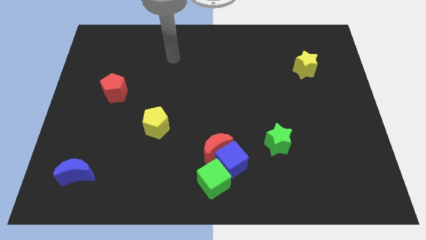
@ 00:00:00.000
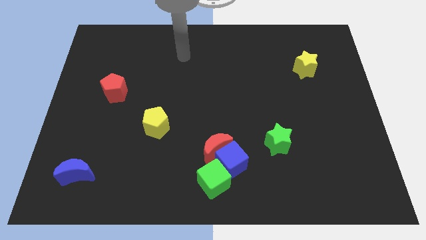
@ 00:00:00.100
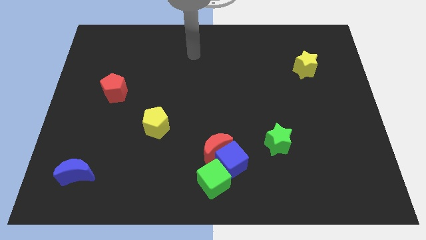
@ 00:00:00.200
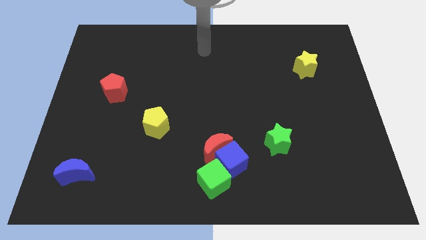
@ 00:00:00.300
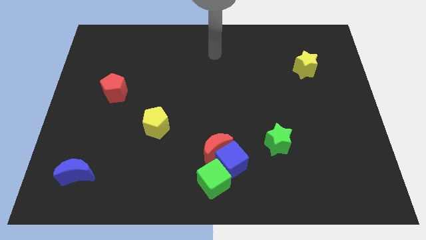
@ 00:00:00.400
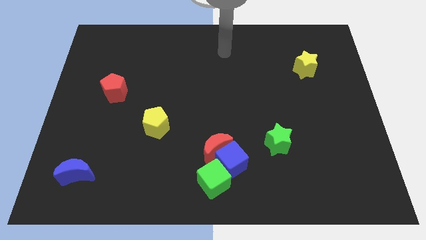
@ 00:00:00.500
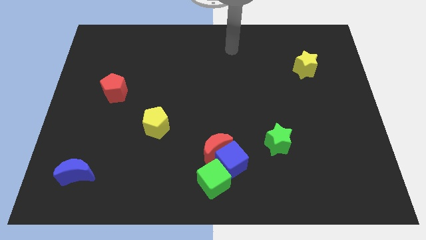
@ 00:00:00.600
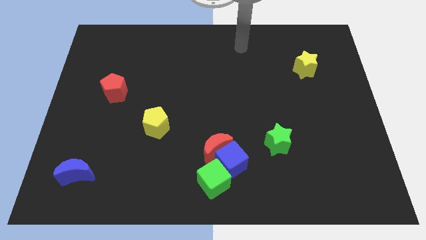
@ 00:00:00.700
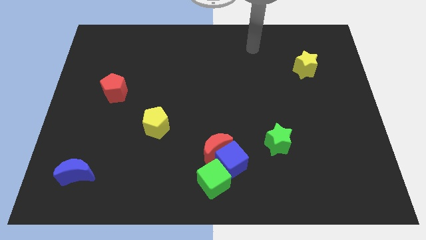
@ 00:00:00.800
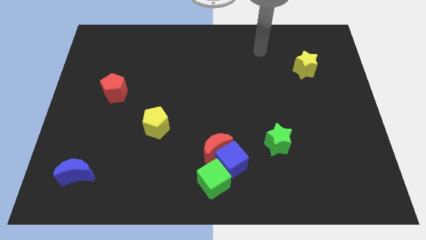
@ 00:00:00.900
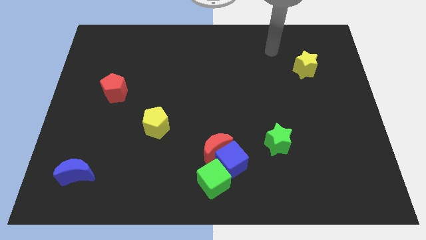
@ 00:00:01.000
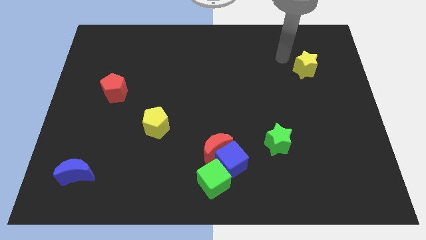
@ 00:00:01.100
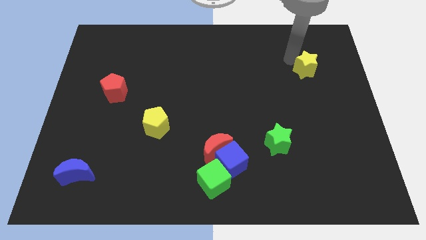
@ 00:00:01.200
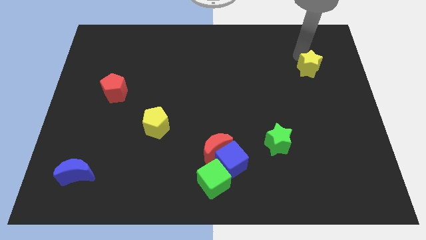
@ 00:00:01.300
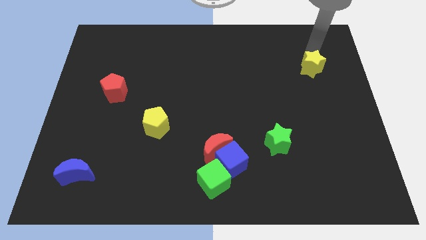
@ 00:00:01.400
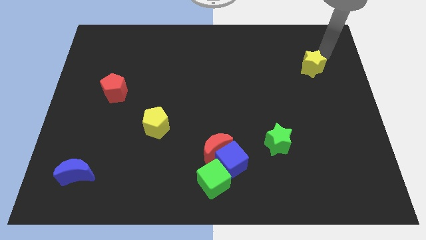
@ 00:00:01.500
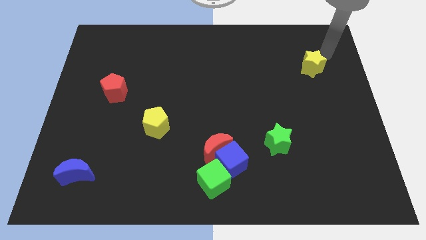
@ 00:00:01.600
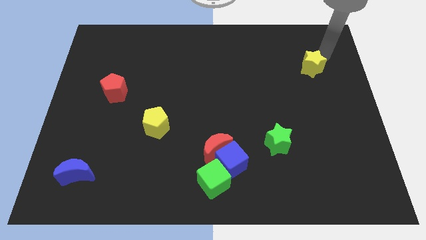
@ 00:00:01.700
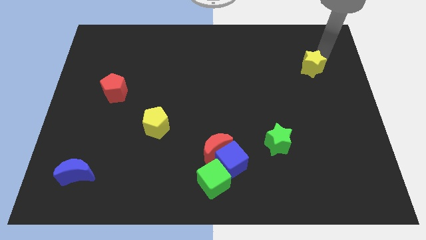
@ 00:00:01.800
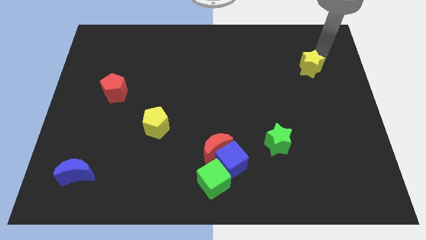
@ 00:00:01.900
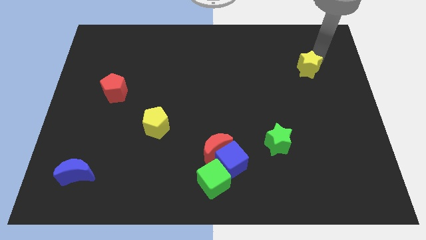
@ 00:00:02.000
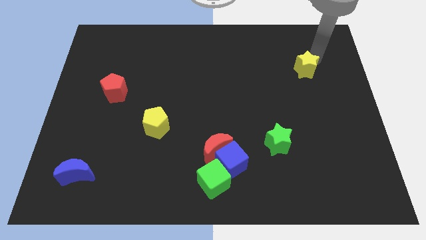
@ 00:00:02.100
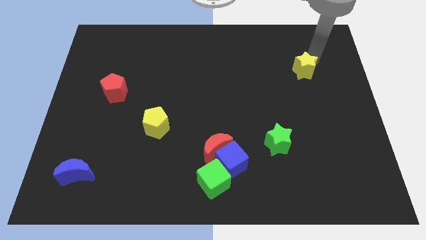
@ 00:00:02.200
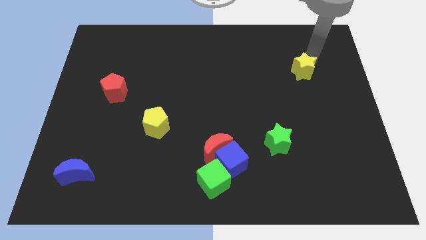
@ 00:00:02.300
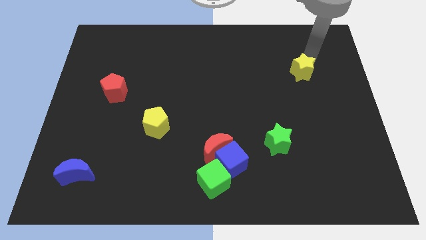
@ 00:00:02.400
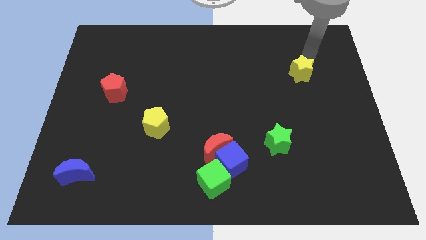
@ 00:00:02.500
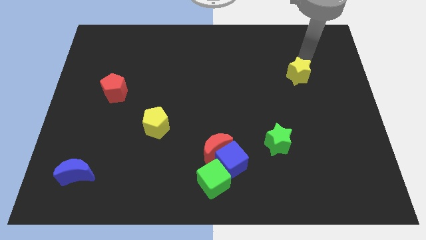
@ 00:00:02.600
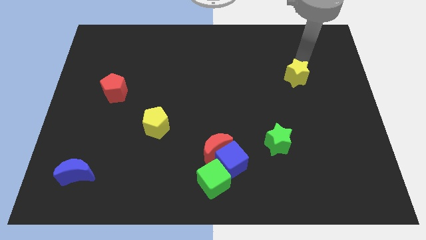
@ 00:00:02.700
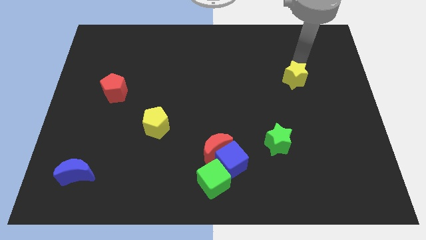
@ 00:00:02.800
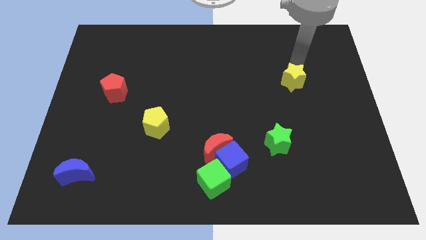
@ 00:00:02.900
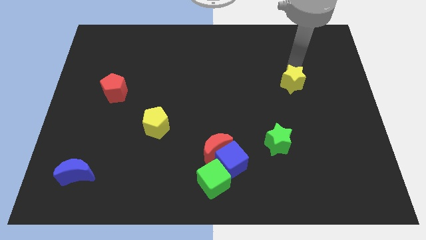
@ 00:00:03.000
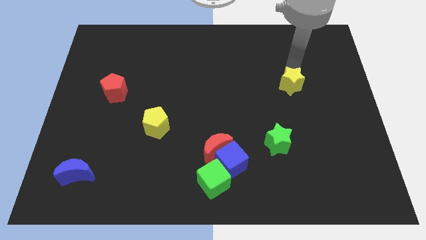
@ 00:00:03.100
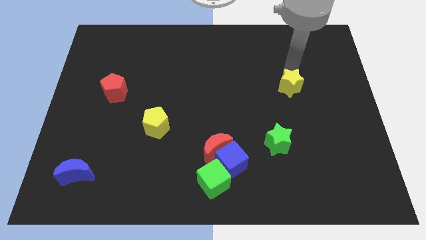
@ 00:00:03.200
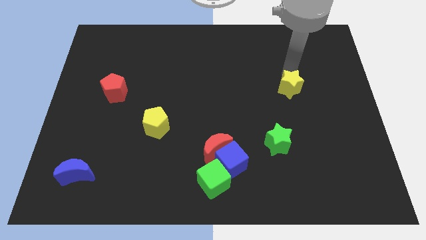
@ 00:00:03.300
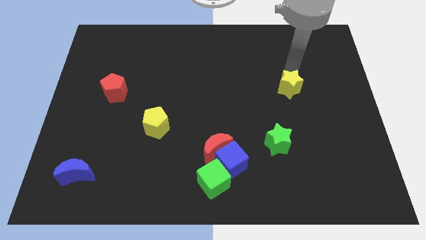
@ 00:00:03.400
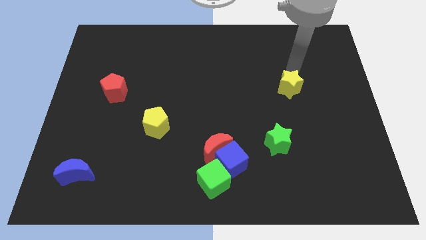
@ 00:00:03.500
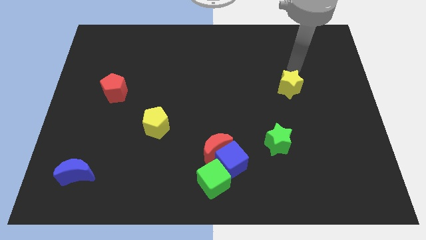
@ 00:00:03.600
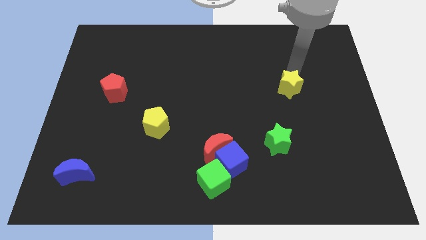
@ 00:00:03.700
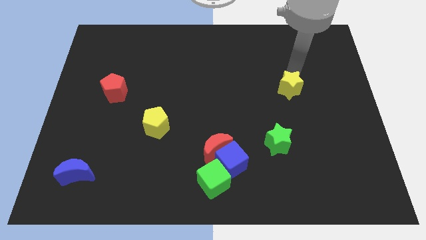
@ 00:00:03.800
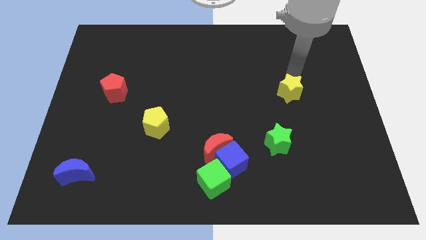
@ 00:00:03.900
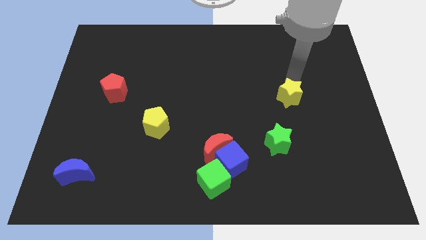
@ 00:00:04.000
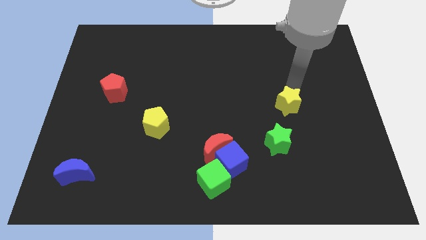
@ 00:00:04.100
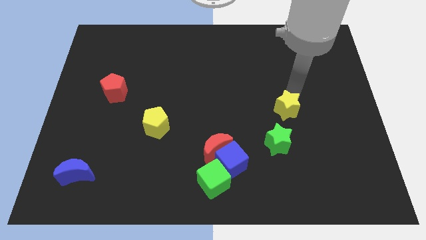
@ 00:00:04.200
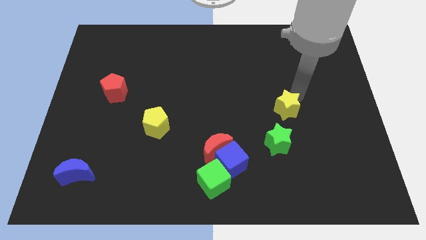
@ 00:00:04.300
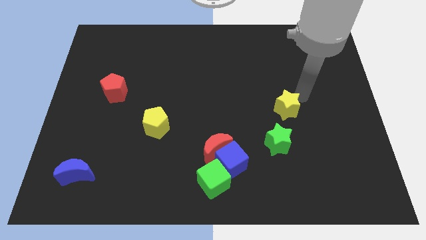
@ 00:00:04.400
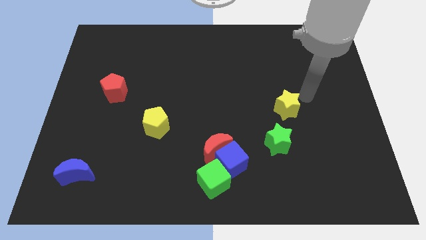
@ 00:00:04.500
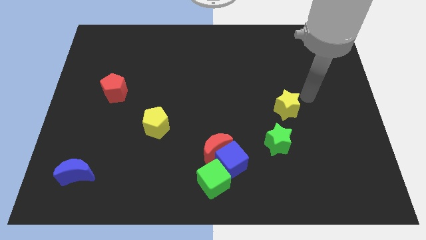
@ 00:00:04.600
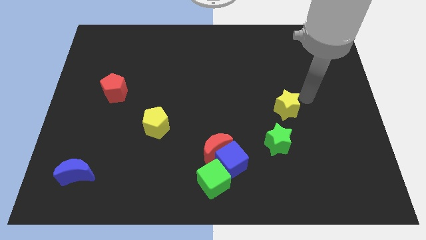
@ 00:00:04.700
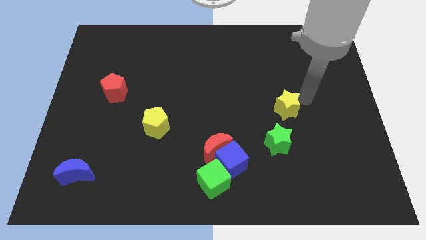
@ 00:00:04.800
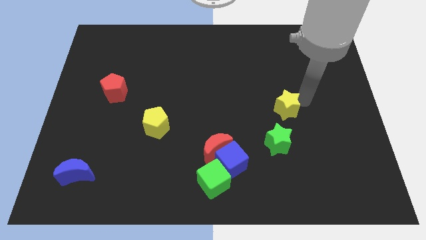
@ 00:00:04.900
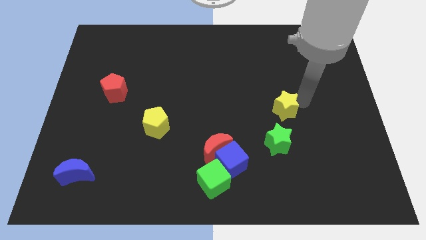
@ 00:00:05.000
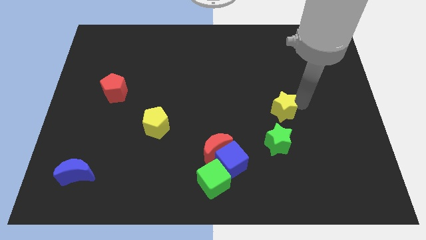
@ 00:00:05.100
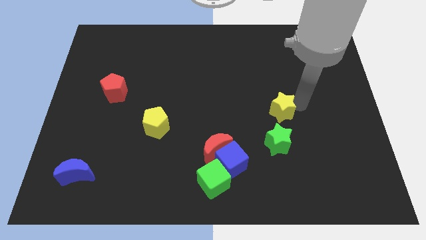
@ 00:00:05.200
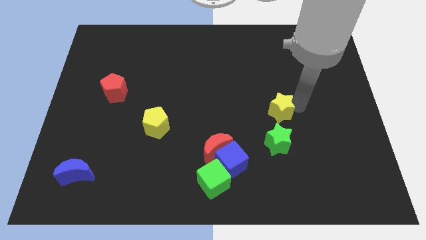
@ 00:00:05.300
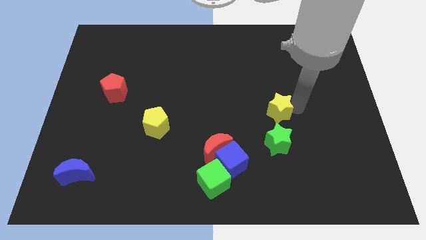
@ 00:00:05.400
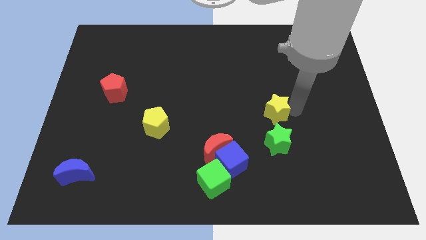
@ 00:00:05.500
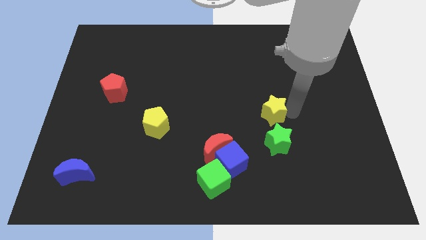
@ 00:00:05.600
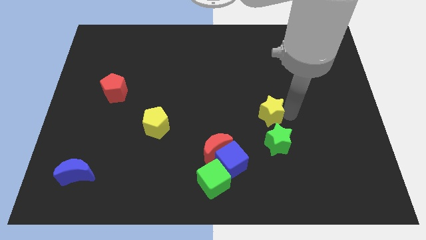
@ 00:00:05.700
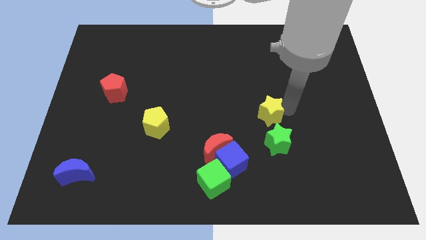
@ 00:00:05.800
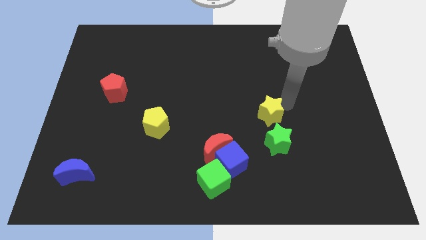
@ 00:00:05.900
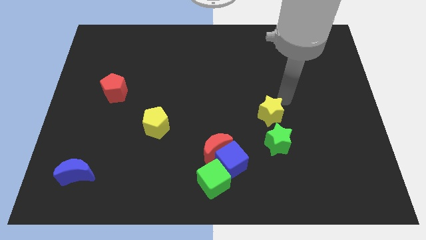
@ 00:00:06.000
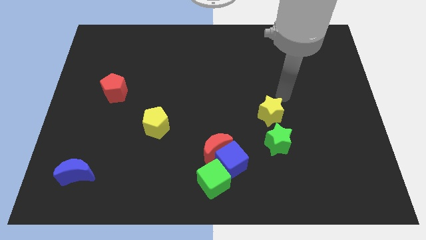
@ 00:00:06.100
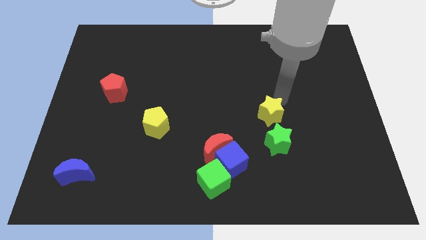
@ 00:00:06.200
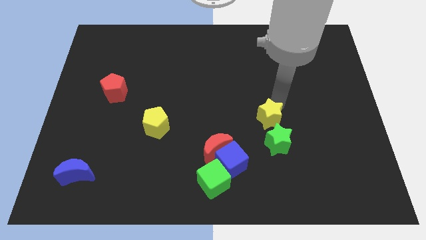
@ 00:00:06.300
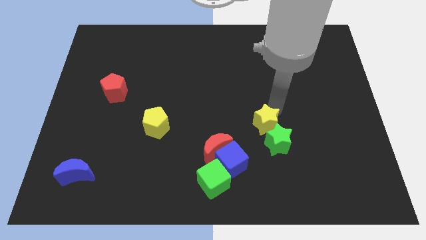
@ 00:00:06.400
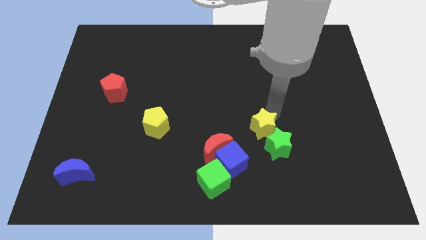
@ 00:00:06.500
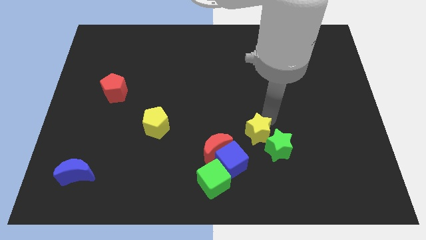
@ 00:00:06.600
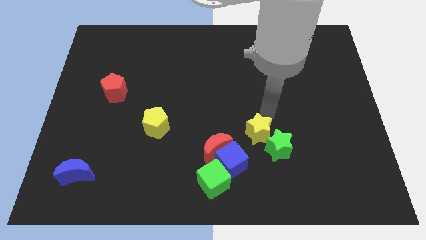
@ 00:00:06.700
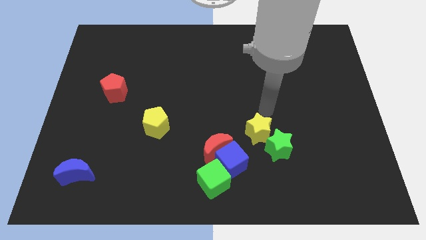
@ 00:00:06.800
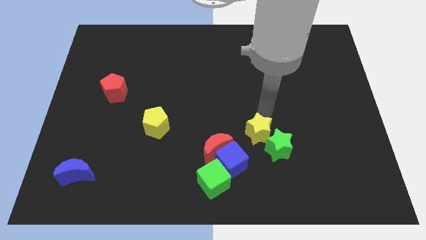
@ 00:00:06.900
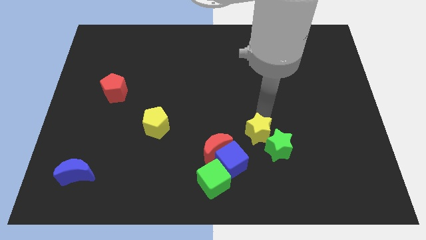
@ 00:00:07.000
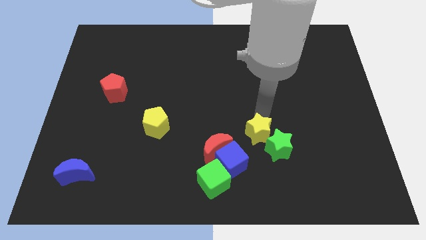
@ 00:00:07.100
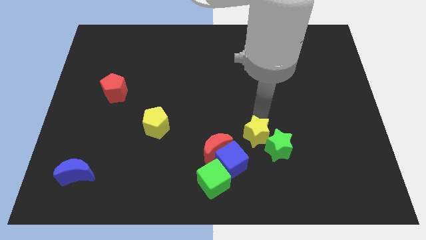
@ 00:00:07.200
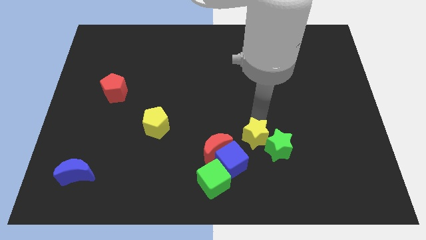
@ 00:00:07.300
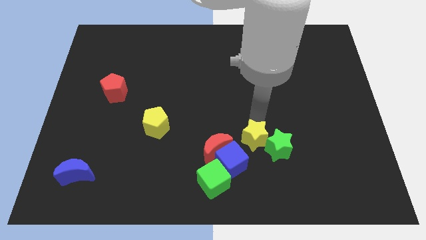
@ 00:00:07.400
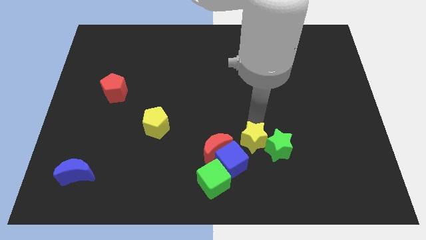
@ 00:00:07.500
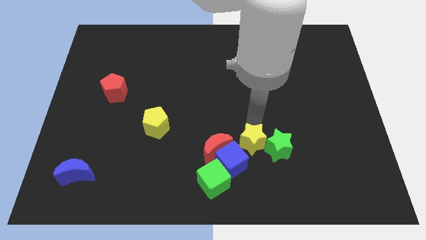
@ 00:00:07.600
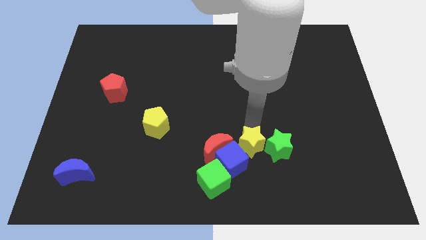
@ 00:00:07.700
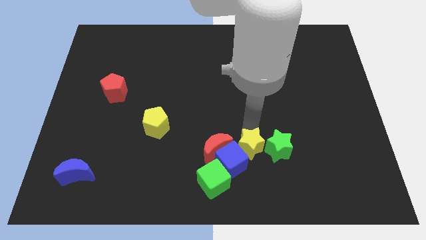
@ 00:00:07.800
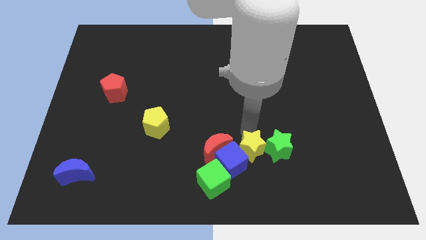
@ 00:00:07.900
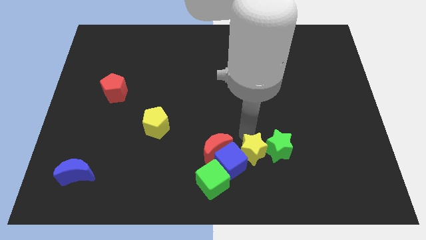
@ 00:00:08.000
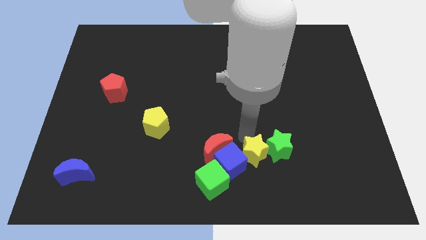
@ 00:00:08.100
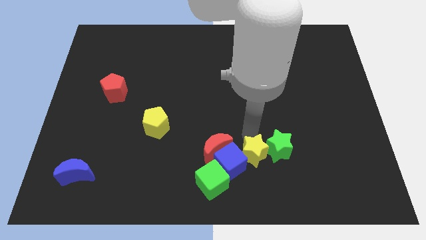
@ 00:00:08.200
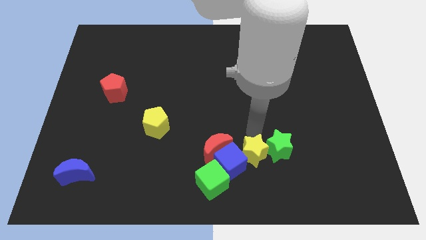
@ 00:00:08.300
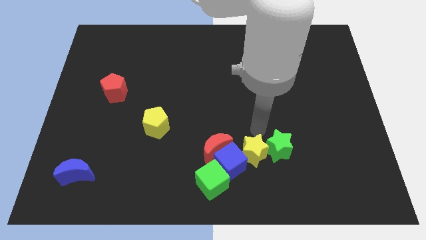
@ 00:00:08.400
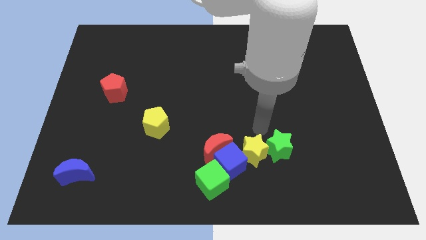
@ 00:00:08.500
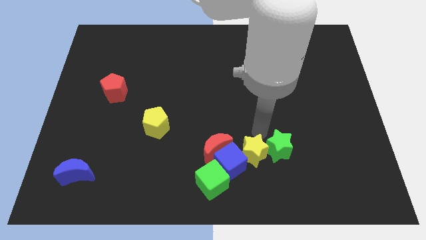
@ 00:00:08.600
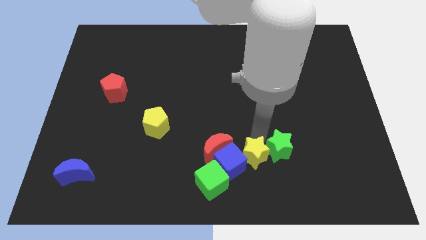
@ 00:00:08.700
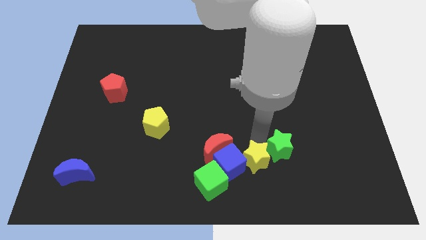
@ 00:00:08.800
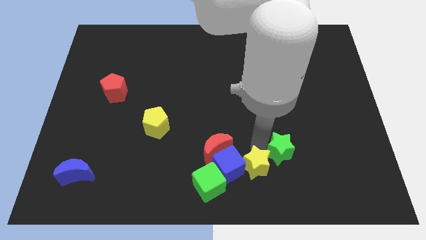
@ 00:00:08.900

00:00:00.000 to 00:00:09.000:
slide the yellow star to the bottom side
